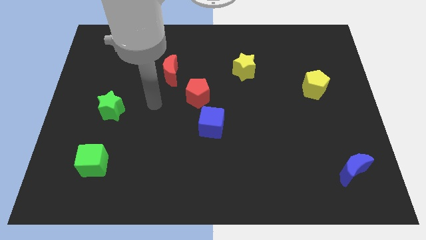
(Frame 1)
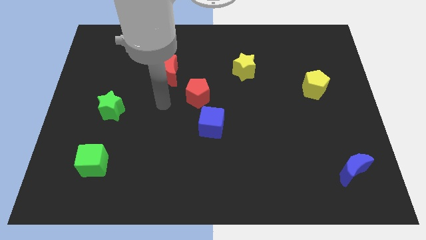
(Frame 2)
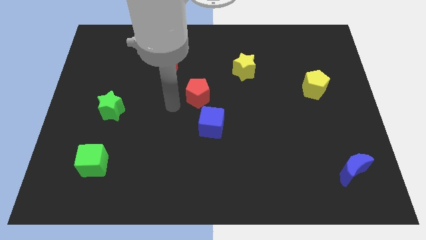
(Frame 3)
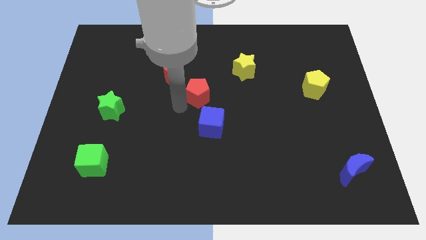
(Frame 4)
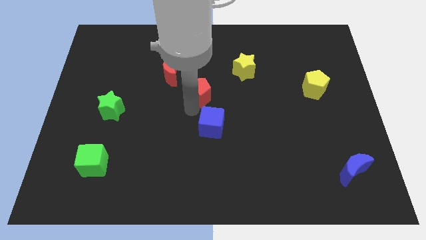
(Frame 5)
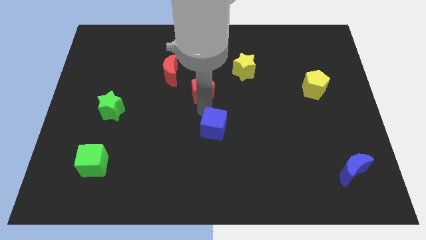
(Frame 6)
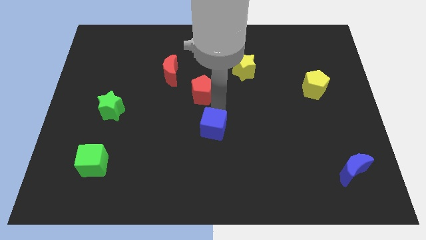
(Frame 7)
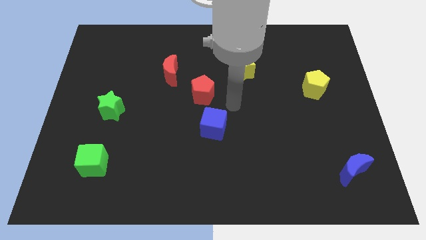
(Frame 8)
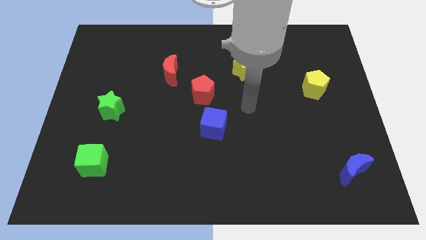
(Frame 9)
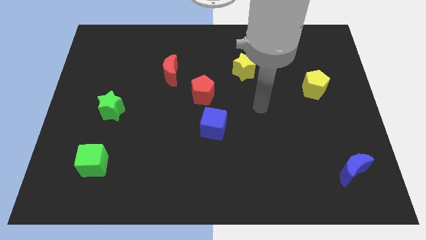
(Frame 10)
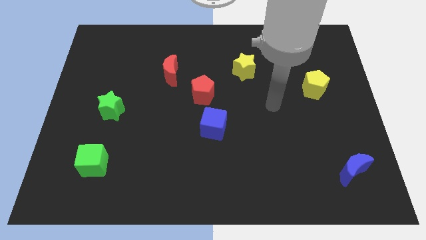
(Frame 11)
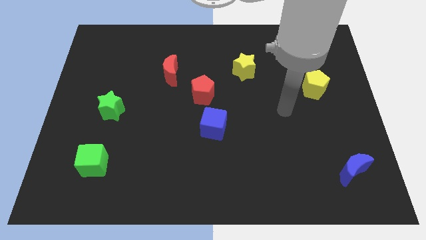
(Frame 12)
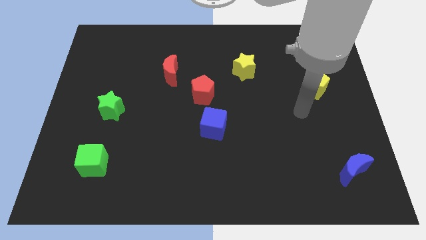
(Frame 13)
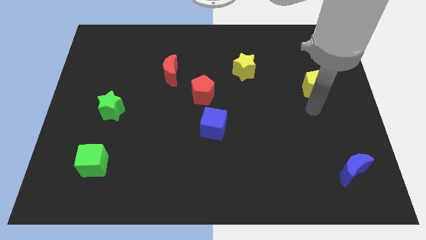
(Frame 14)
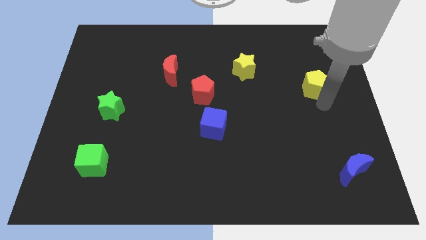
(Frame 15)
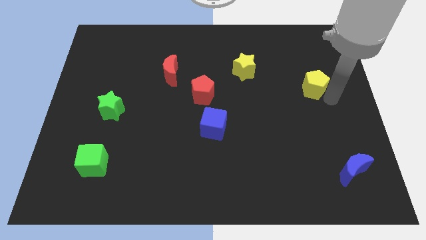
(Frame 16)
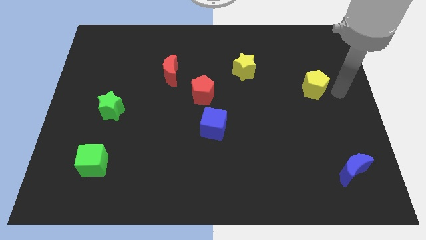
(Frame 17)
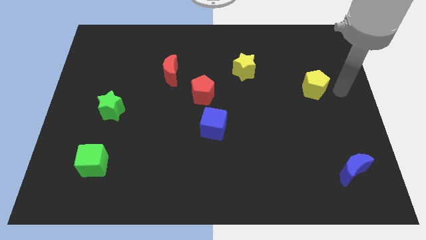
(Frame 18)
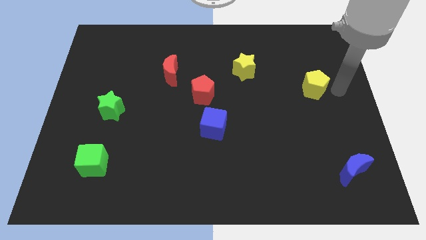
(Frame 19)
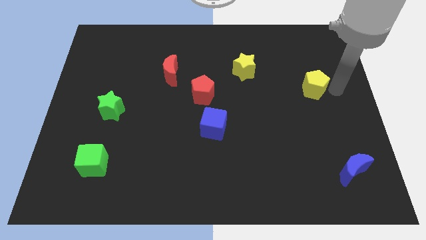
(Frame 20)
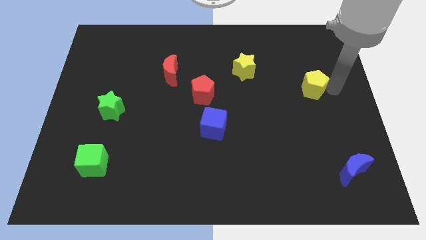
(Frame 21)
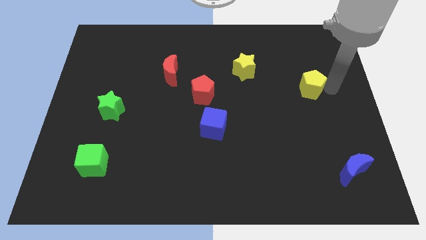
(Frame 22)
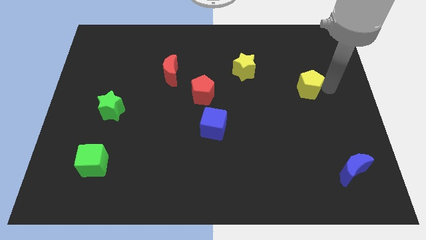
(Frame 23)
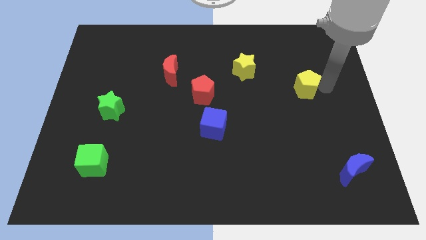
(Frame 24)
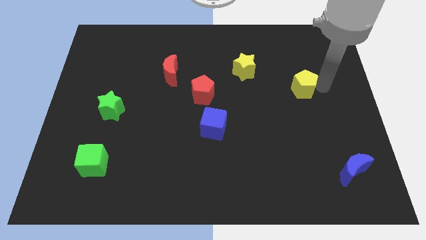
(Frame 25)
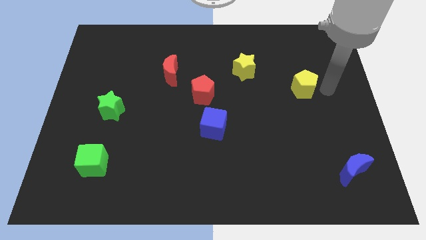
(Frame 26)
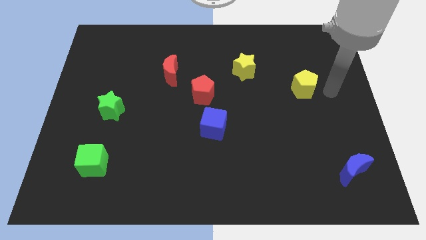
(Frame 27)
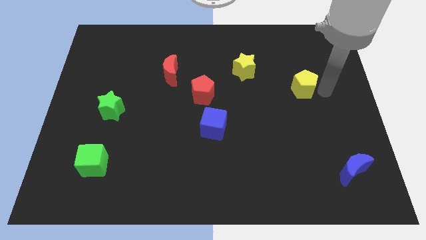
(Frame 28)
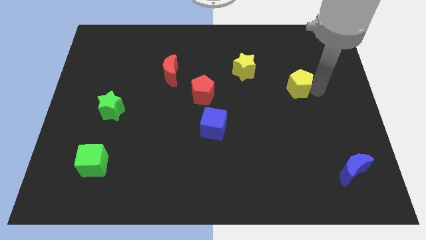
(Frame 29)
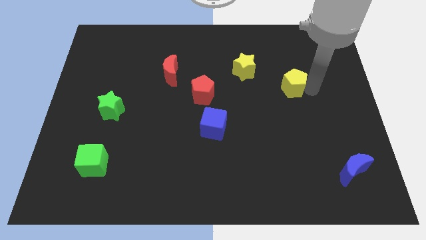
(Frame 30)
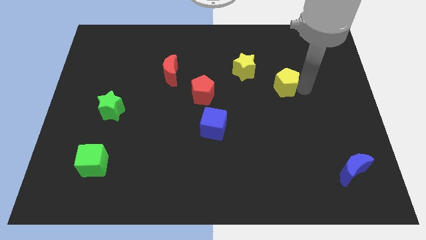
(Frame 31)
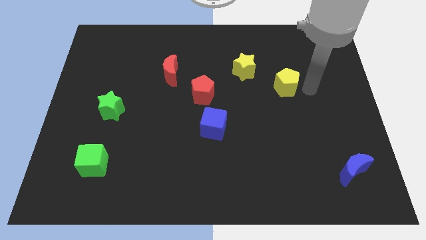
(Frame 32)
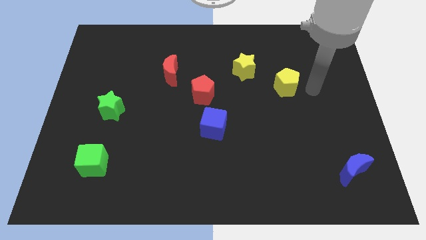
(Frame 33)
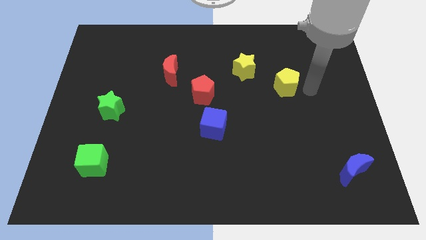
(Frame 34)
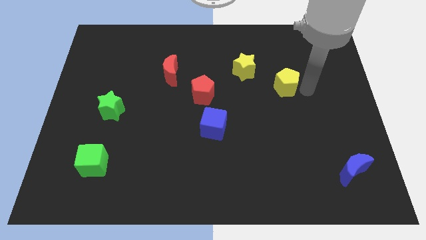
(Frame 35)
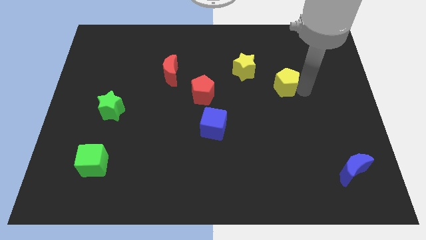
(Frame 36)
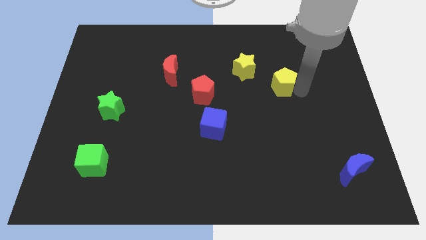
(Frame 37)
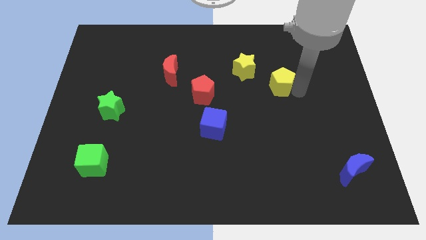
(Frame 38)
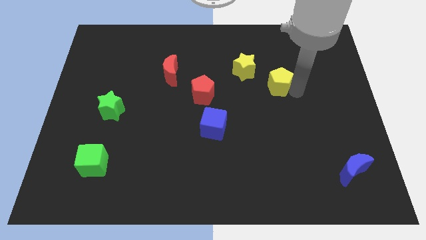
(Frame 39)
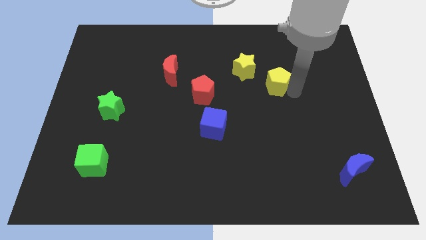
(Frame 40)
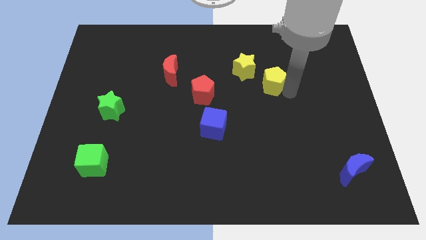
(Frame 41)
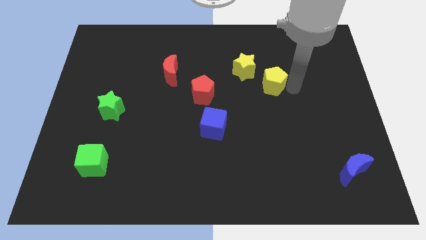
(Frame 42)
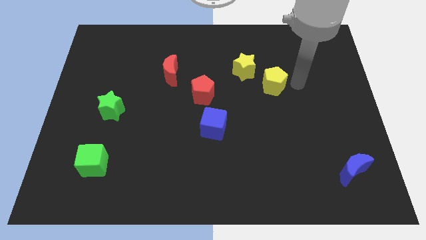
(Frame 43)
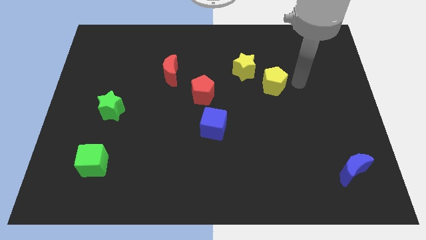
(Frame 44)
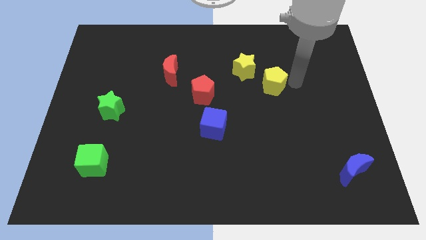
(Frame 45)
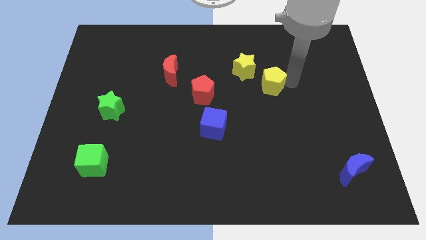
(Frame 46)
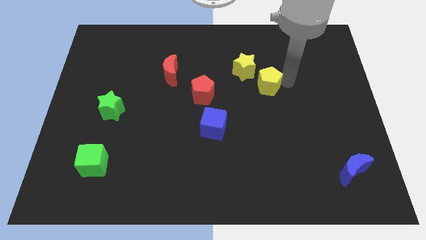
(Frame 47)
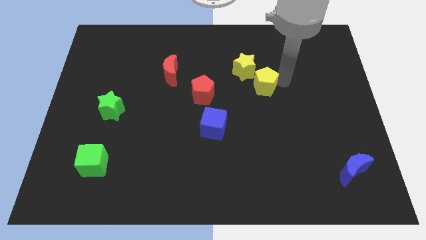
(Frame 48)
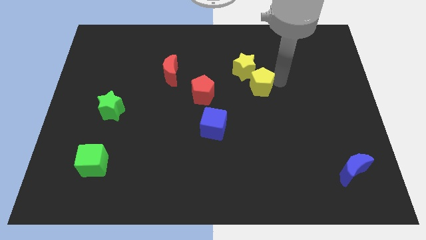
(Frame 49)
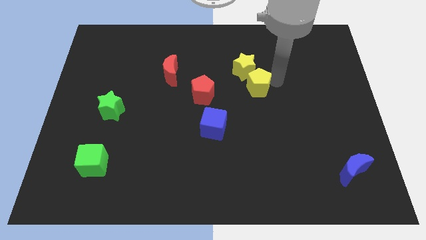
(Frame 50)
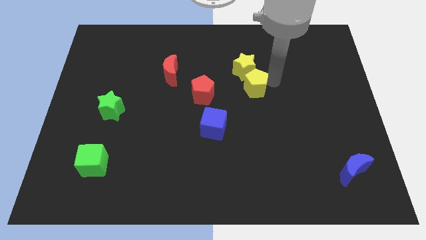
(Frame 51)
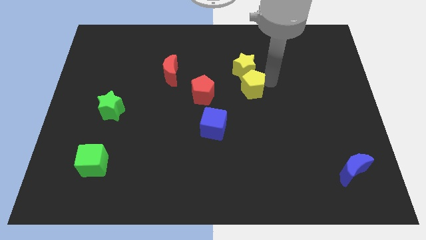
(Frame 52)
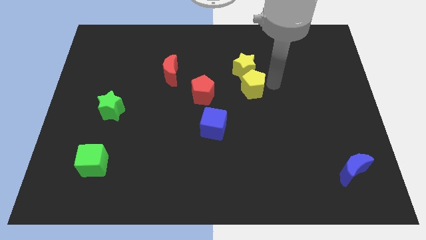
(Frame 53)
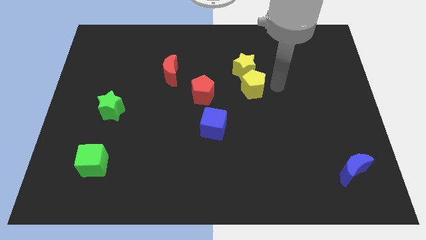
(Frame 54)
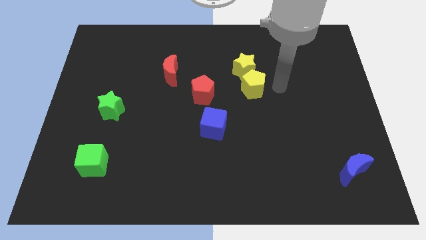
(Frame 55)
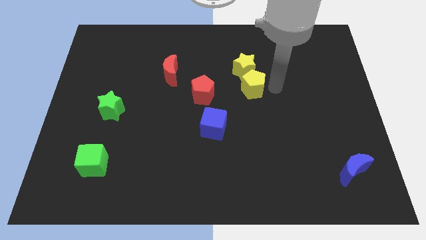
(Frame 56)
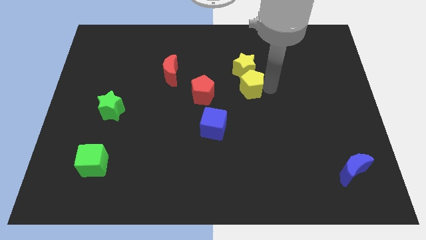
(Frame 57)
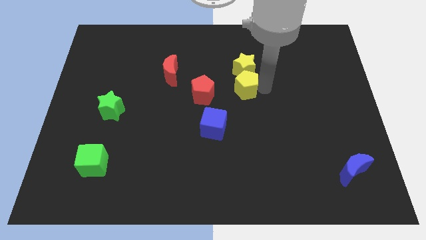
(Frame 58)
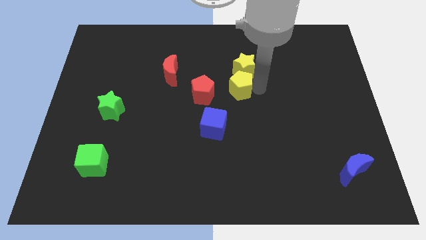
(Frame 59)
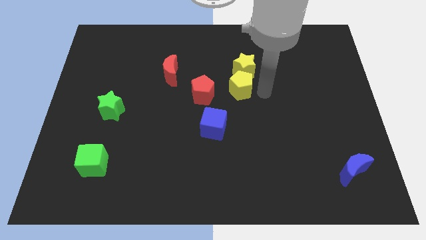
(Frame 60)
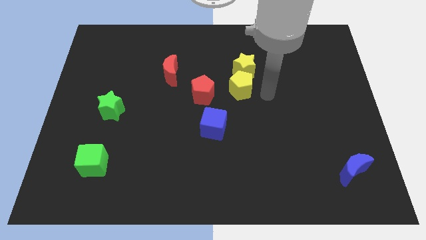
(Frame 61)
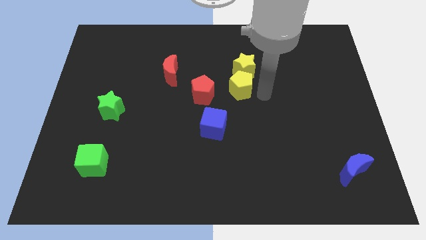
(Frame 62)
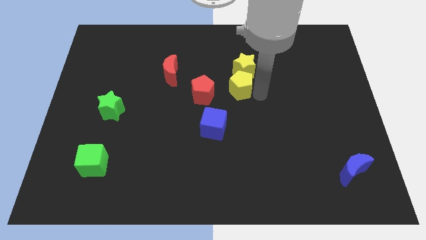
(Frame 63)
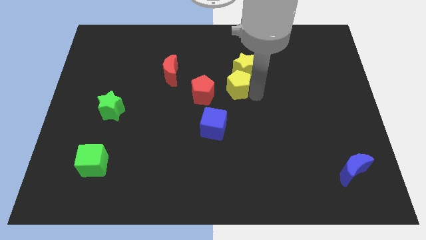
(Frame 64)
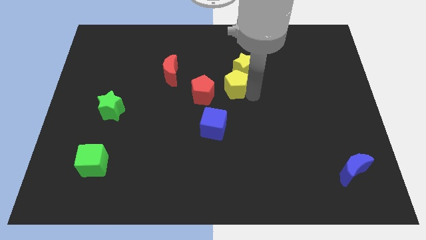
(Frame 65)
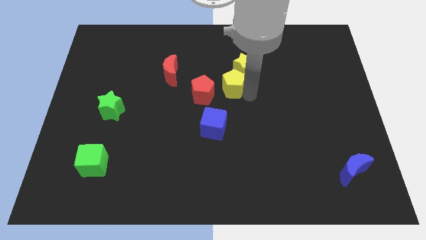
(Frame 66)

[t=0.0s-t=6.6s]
push the yellow pentagon to the left

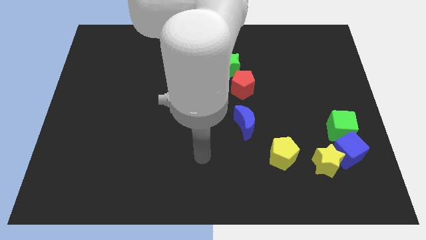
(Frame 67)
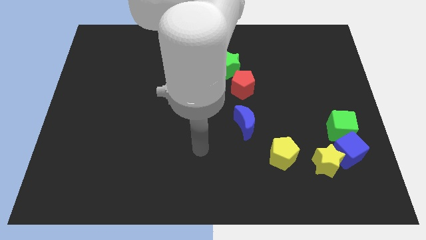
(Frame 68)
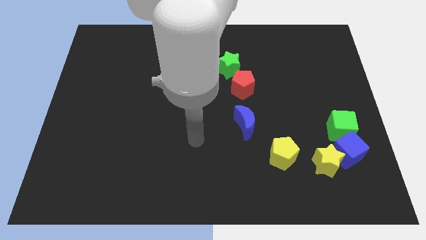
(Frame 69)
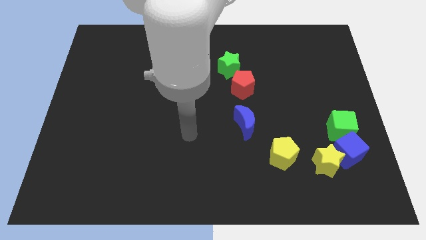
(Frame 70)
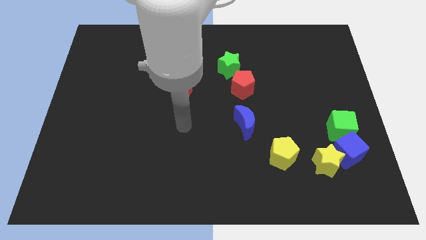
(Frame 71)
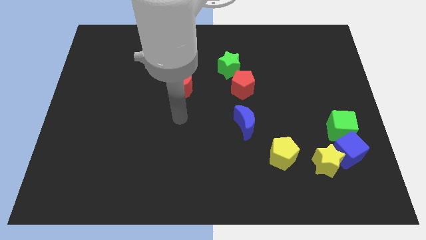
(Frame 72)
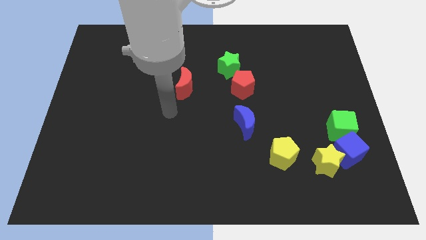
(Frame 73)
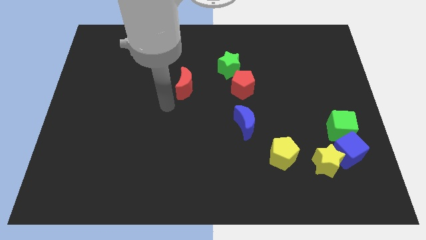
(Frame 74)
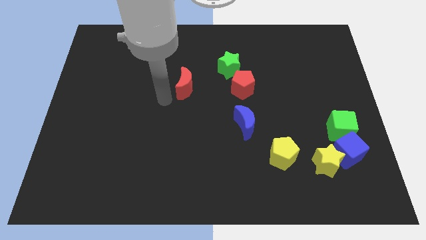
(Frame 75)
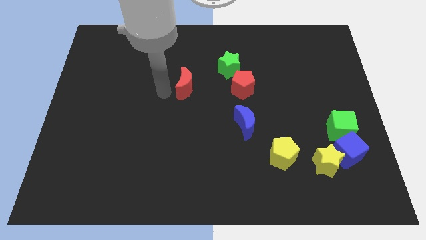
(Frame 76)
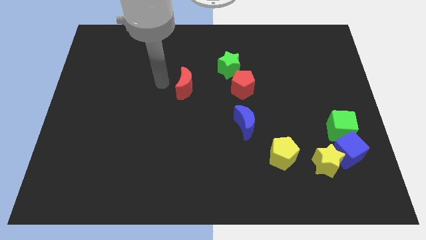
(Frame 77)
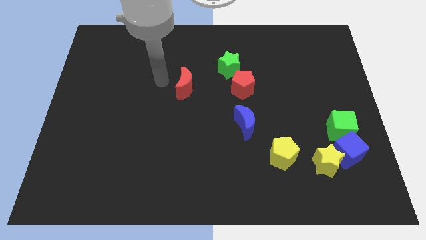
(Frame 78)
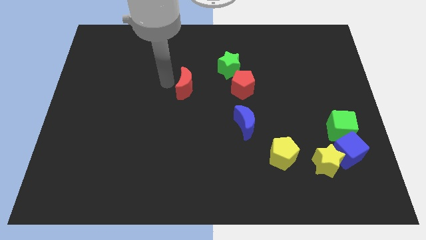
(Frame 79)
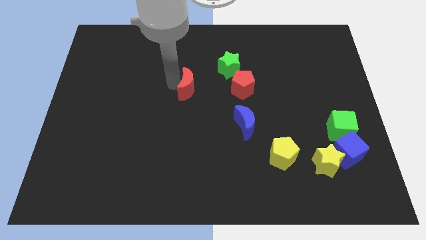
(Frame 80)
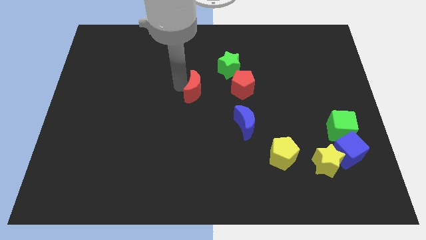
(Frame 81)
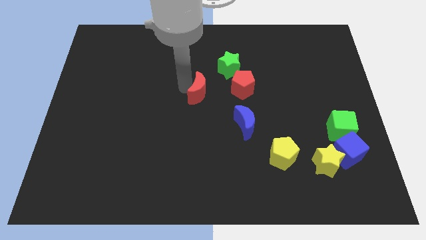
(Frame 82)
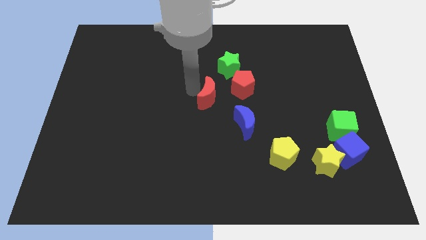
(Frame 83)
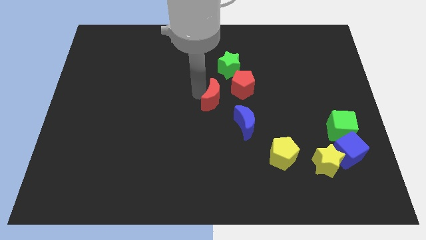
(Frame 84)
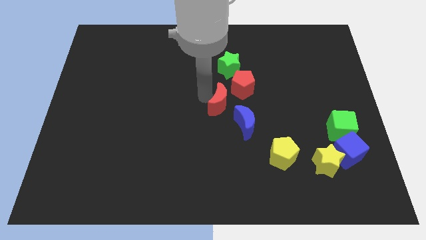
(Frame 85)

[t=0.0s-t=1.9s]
push the red moon to the right a little bit

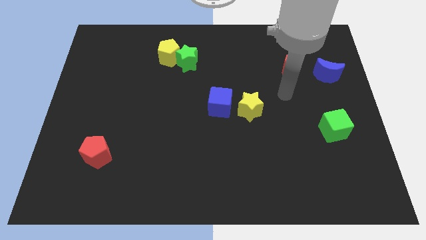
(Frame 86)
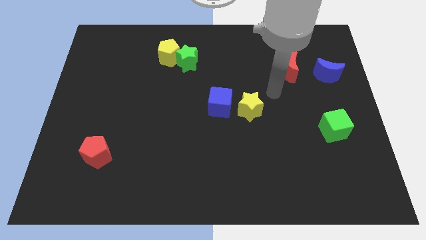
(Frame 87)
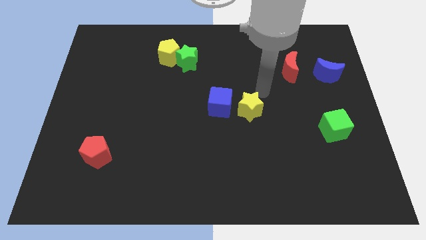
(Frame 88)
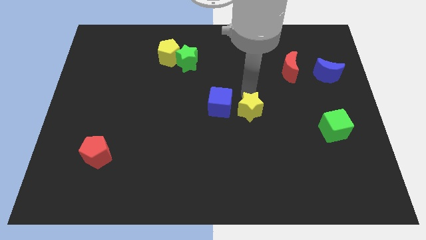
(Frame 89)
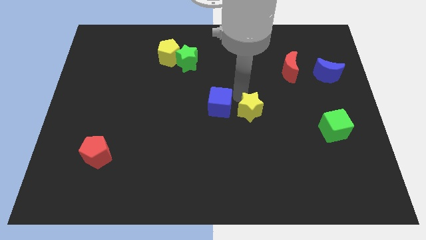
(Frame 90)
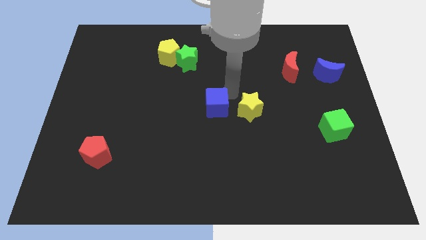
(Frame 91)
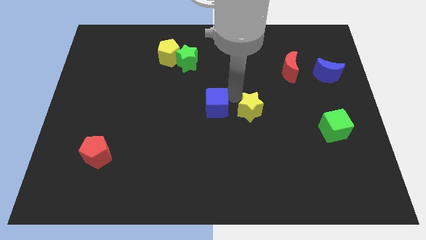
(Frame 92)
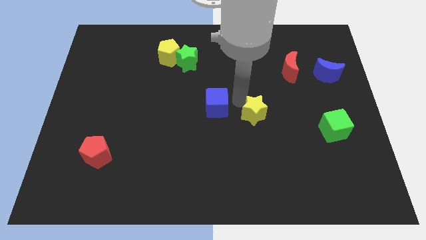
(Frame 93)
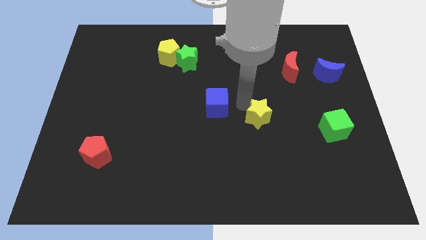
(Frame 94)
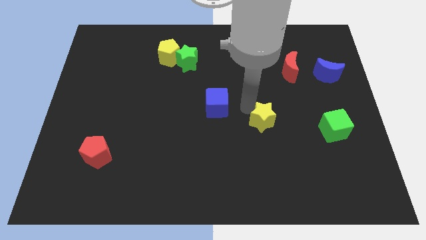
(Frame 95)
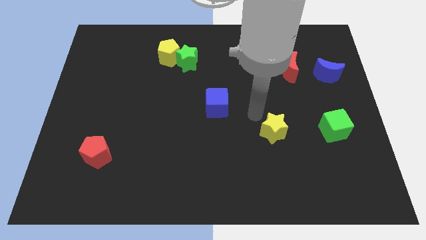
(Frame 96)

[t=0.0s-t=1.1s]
slightly slide the yellow star down and then right
